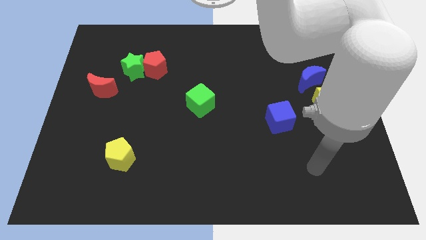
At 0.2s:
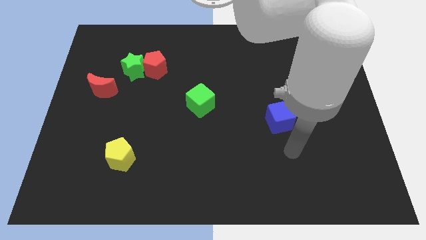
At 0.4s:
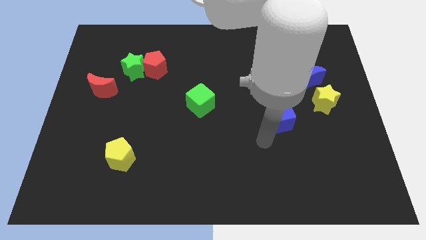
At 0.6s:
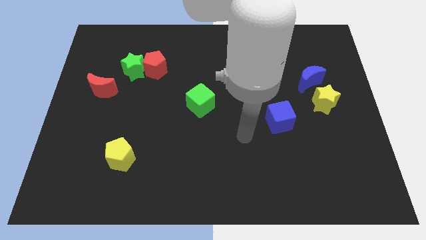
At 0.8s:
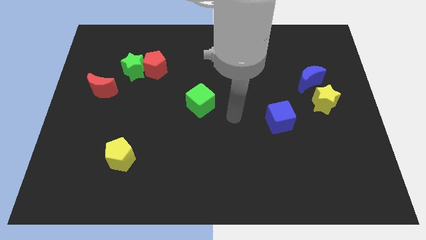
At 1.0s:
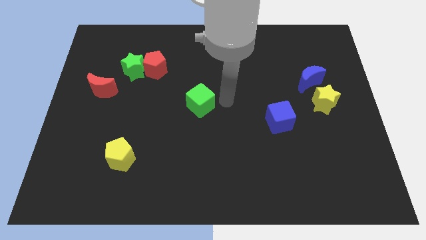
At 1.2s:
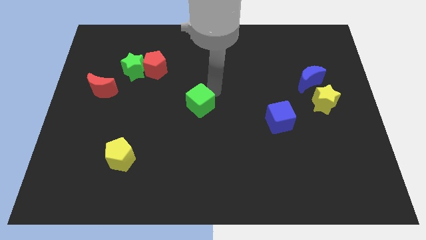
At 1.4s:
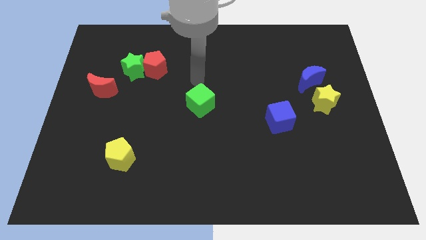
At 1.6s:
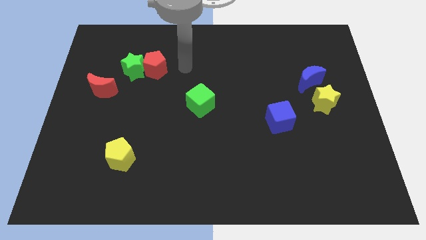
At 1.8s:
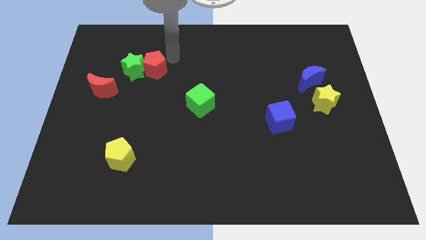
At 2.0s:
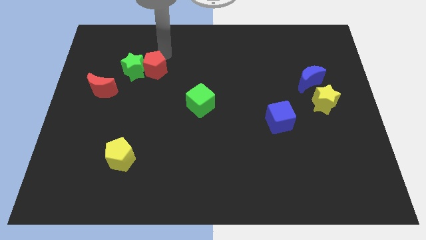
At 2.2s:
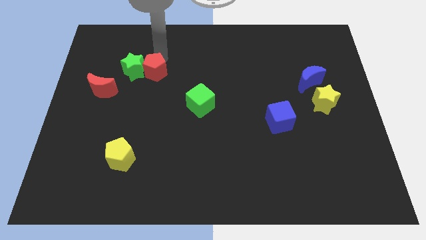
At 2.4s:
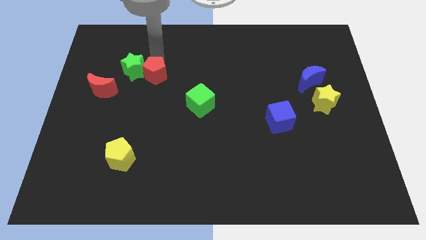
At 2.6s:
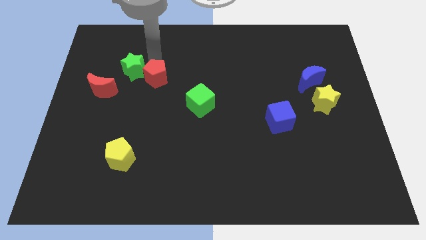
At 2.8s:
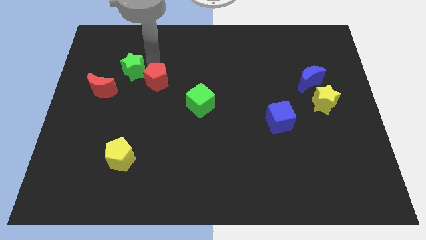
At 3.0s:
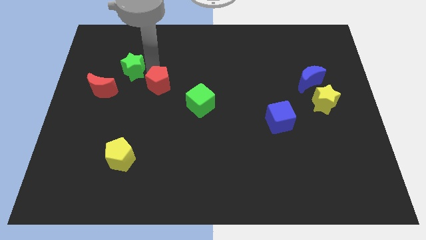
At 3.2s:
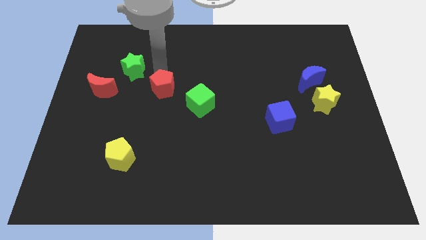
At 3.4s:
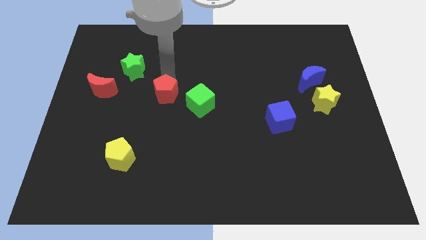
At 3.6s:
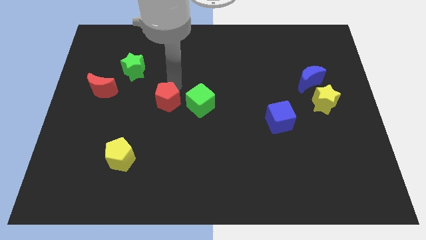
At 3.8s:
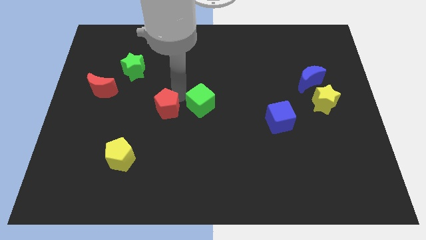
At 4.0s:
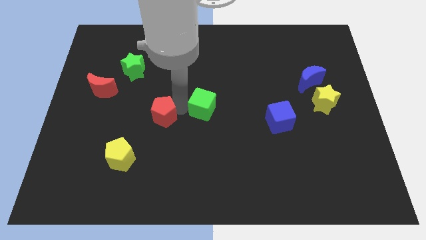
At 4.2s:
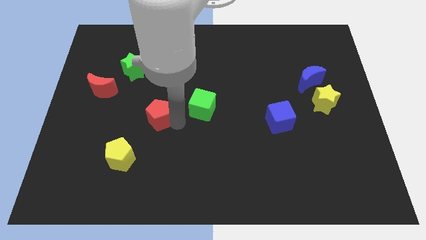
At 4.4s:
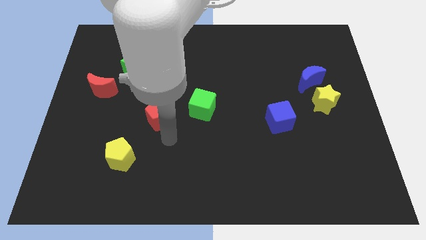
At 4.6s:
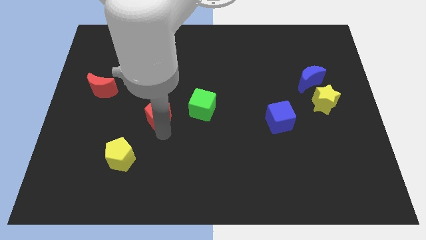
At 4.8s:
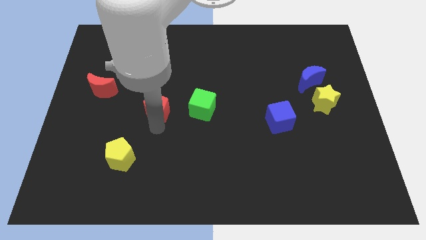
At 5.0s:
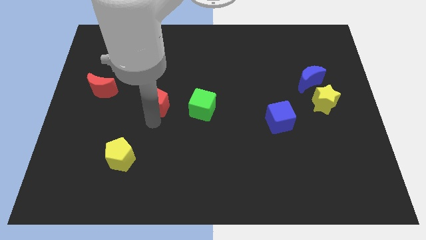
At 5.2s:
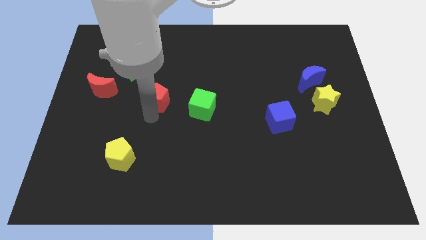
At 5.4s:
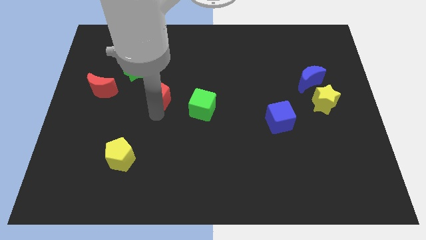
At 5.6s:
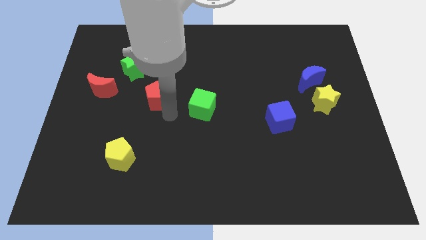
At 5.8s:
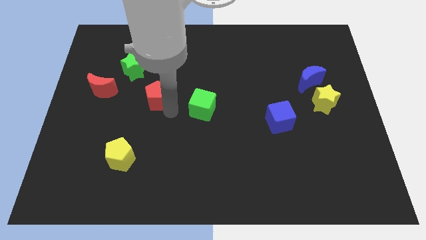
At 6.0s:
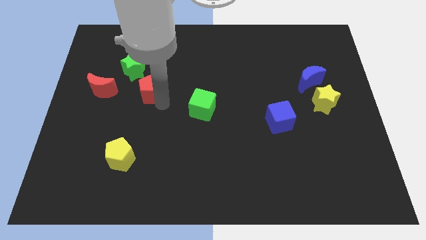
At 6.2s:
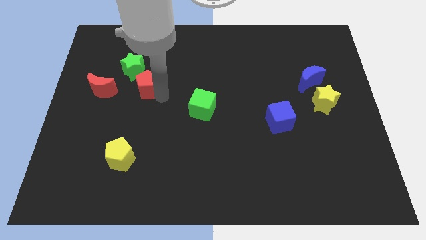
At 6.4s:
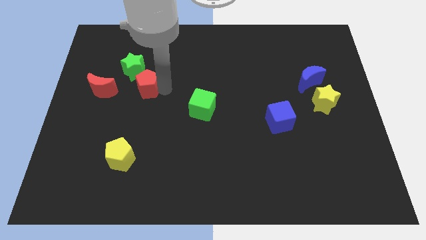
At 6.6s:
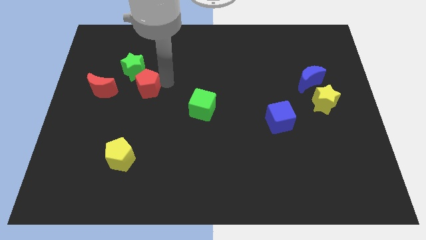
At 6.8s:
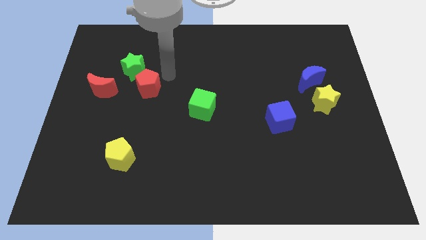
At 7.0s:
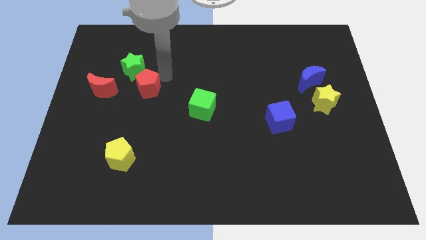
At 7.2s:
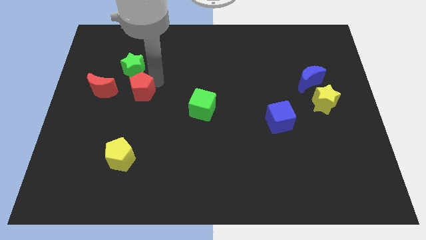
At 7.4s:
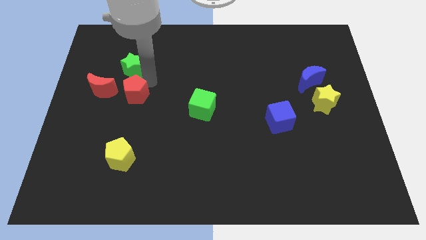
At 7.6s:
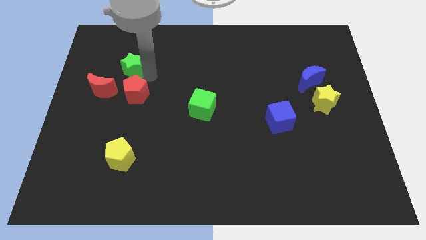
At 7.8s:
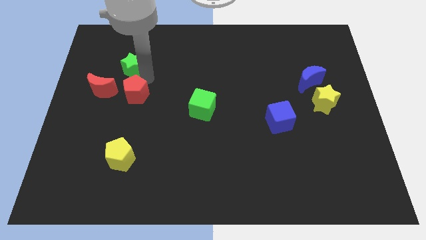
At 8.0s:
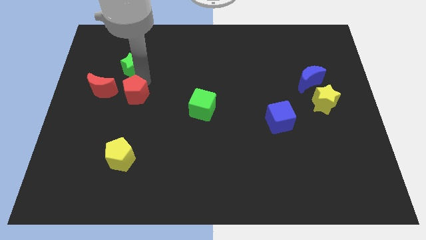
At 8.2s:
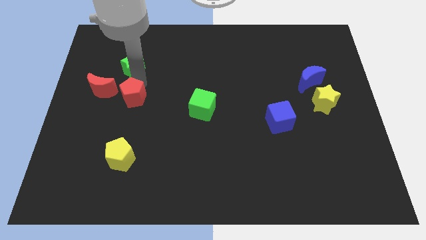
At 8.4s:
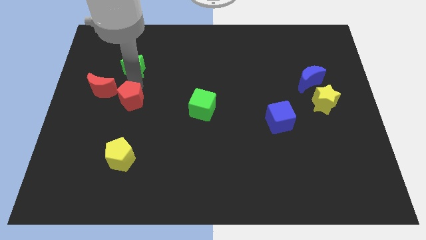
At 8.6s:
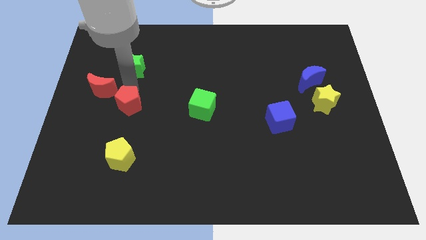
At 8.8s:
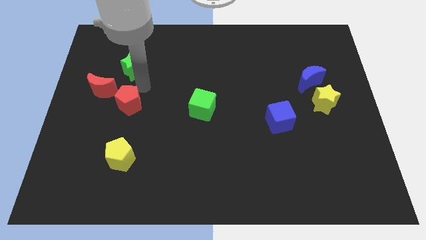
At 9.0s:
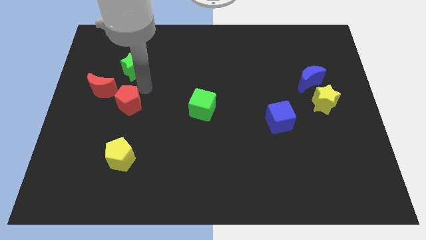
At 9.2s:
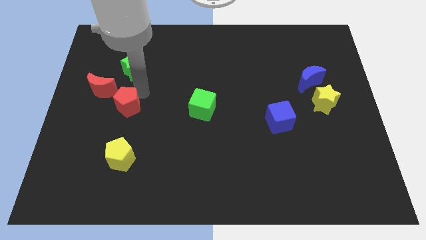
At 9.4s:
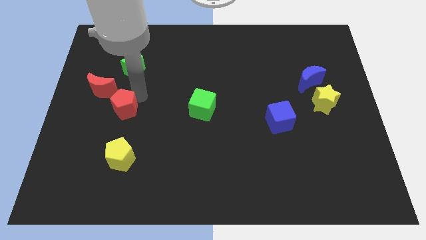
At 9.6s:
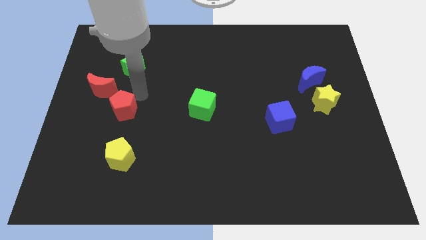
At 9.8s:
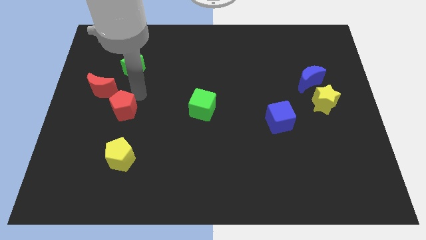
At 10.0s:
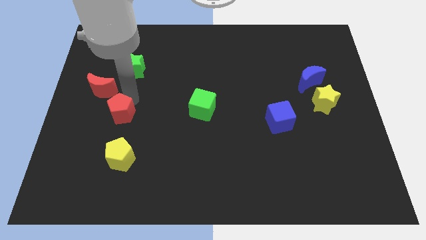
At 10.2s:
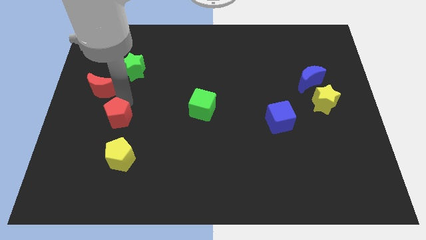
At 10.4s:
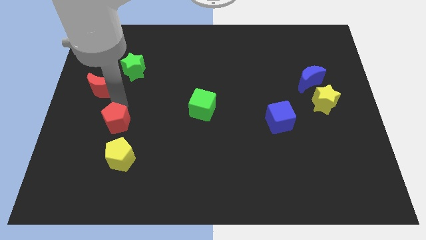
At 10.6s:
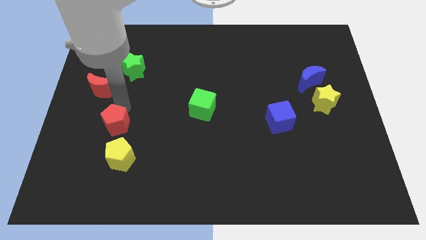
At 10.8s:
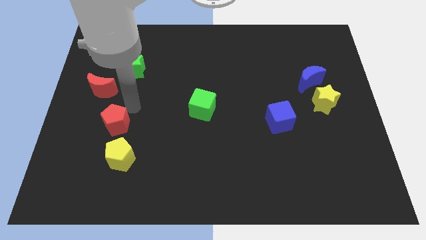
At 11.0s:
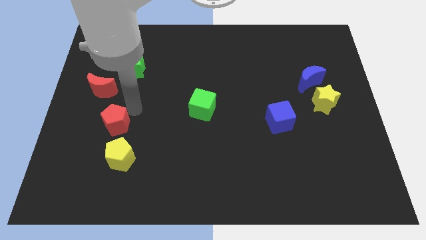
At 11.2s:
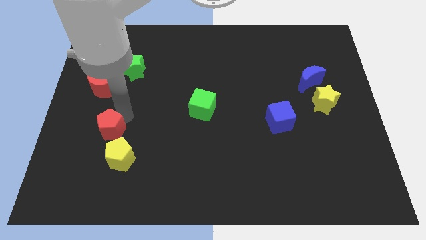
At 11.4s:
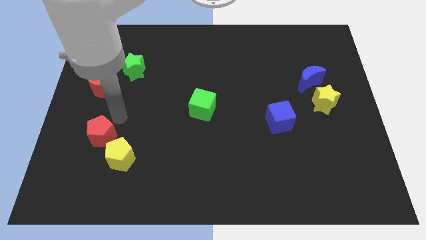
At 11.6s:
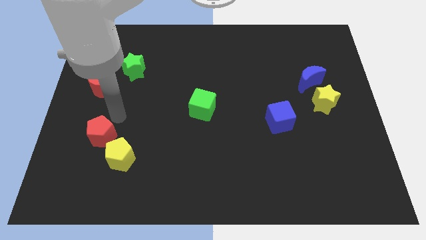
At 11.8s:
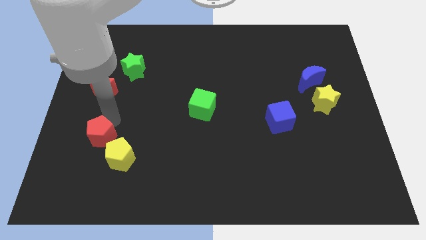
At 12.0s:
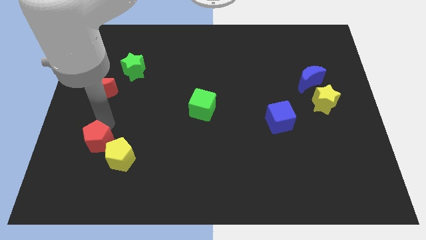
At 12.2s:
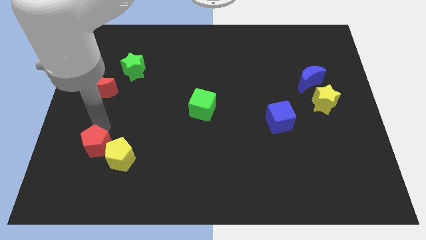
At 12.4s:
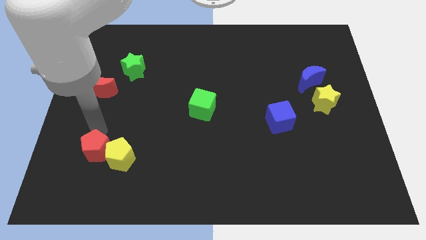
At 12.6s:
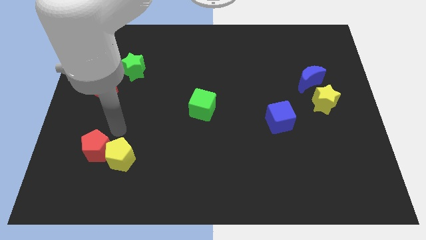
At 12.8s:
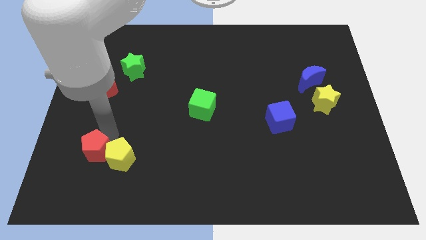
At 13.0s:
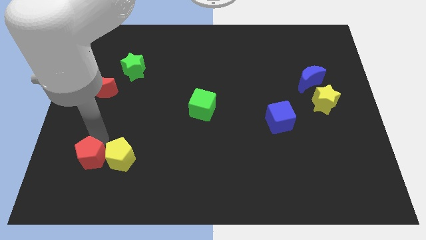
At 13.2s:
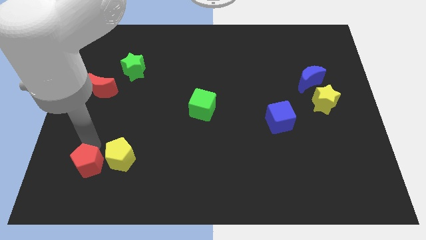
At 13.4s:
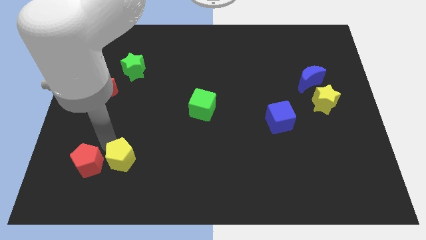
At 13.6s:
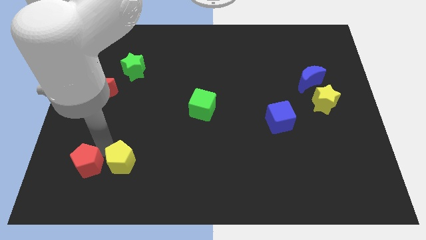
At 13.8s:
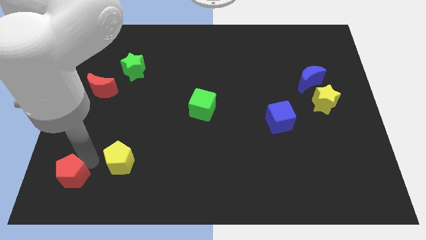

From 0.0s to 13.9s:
push the red pentagon to the bottom left
